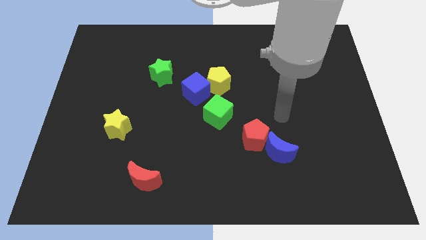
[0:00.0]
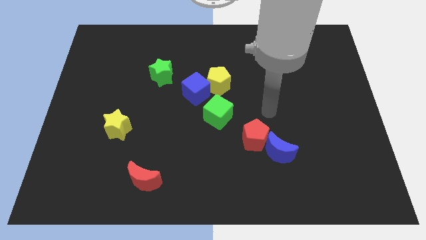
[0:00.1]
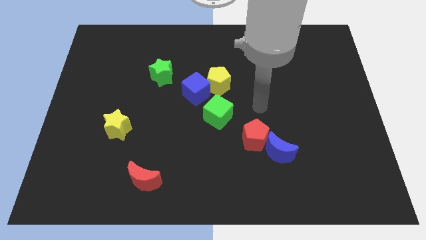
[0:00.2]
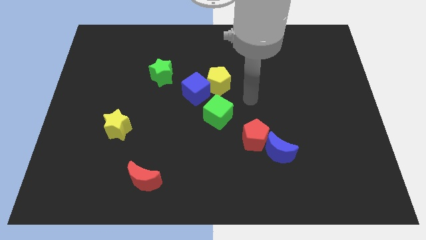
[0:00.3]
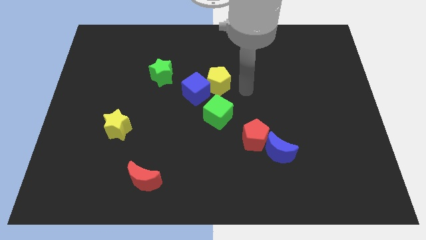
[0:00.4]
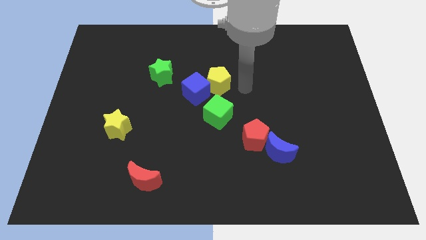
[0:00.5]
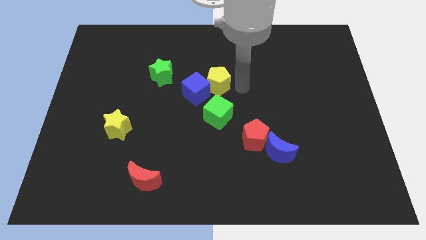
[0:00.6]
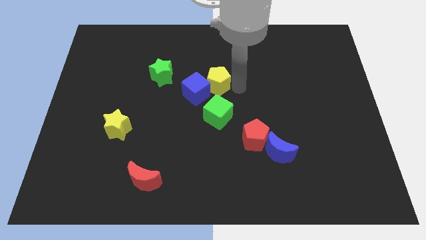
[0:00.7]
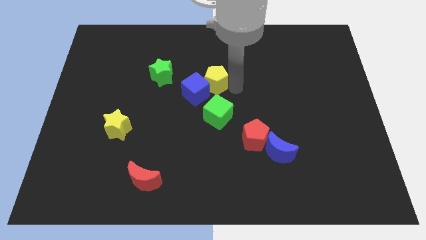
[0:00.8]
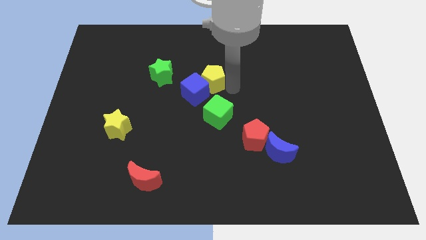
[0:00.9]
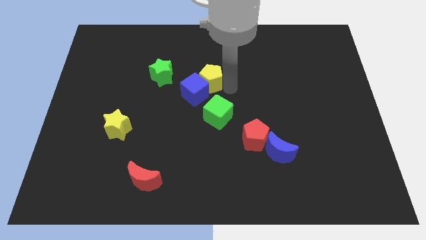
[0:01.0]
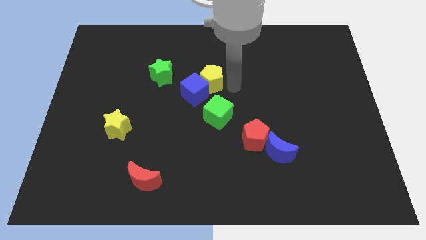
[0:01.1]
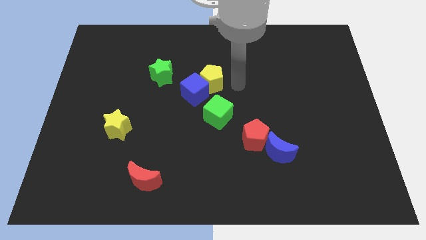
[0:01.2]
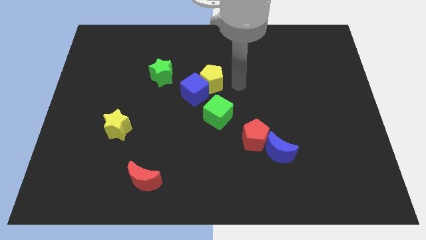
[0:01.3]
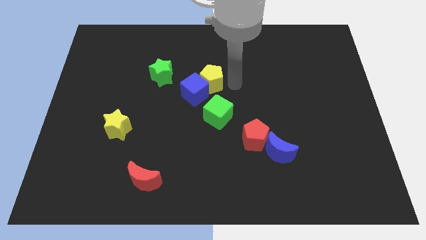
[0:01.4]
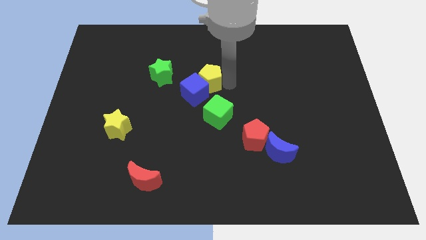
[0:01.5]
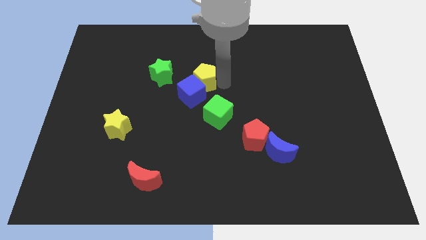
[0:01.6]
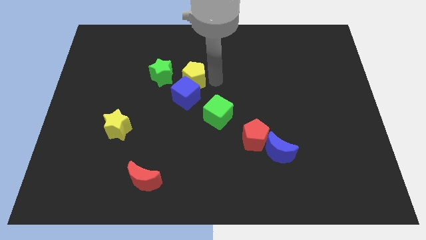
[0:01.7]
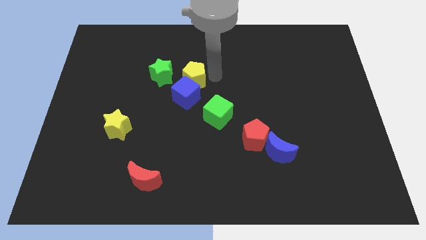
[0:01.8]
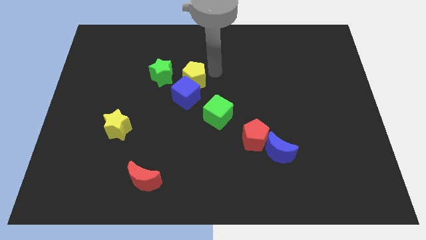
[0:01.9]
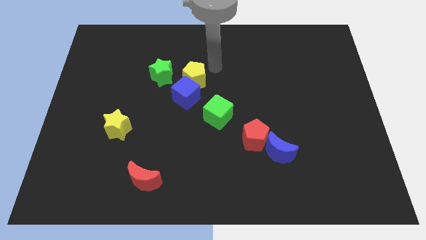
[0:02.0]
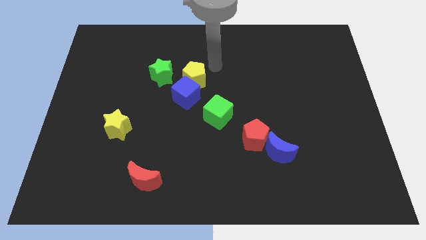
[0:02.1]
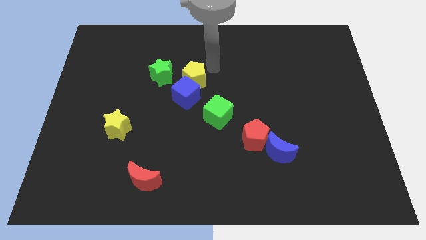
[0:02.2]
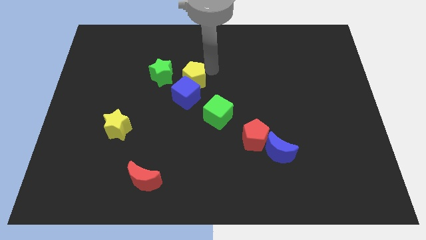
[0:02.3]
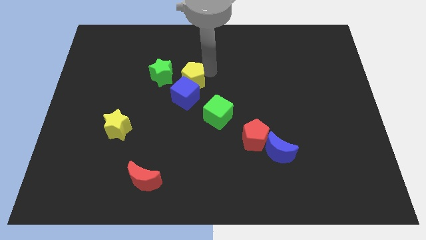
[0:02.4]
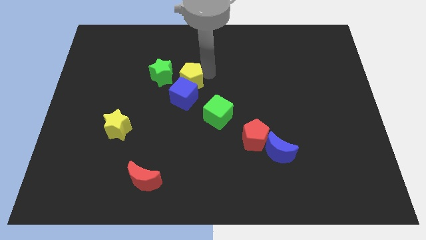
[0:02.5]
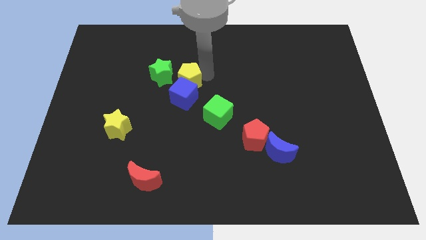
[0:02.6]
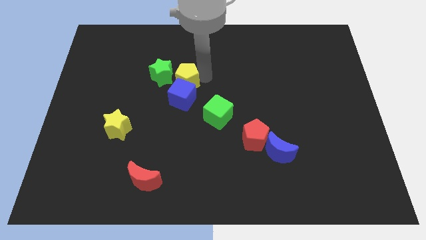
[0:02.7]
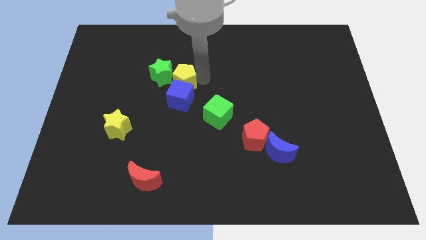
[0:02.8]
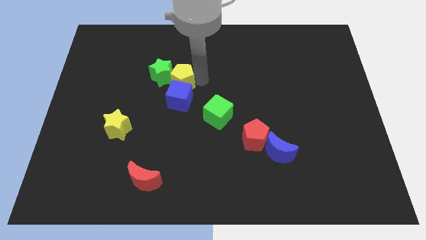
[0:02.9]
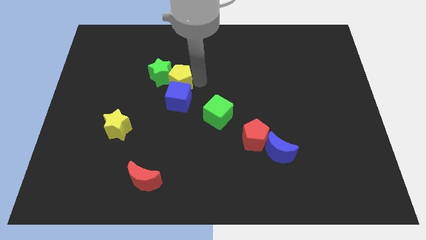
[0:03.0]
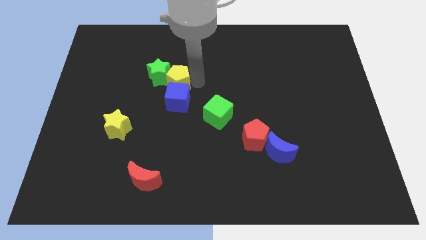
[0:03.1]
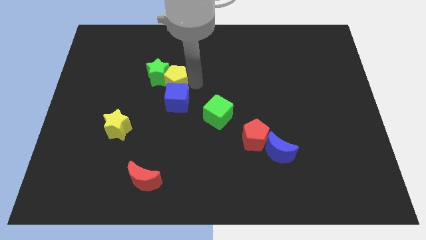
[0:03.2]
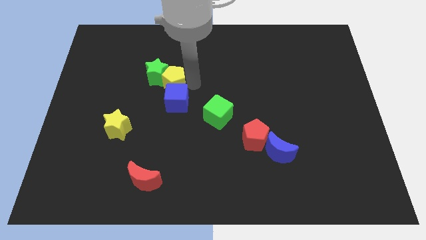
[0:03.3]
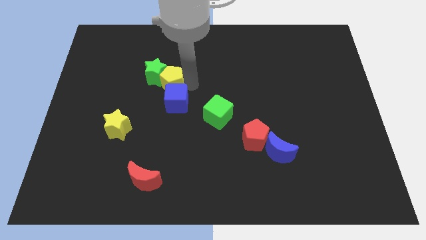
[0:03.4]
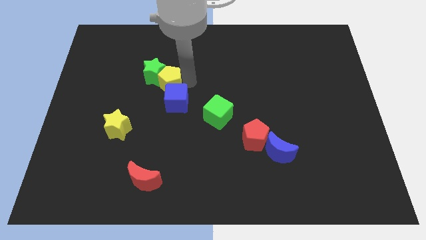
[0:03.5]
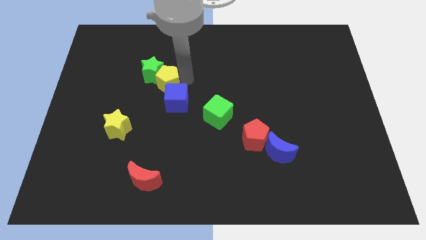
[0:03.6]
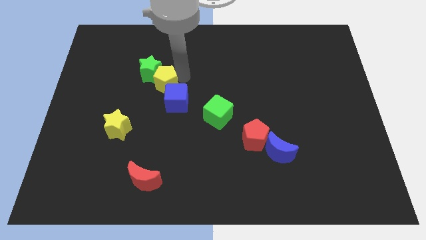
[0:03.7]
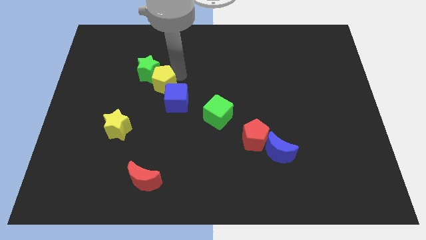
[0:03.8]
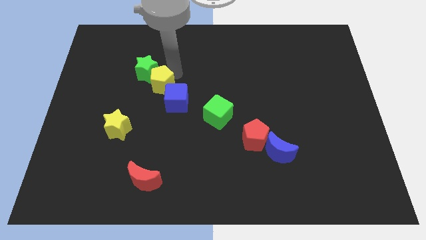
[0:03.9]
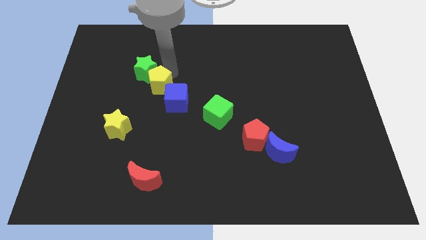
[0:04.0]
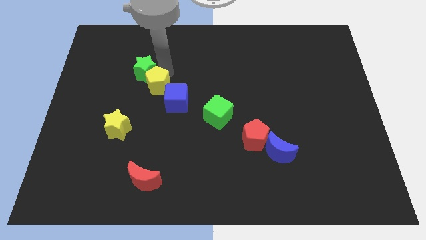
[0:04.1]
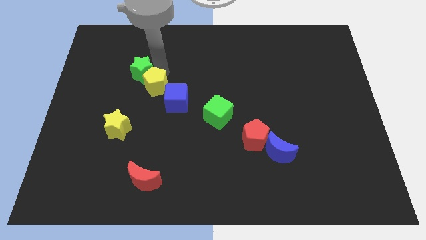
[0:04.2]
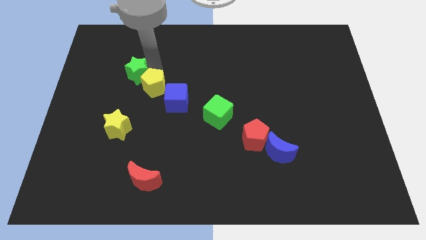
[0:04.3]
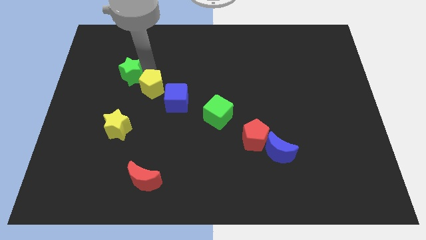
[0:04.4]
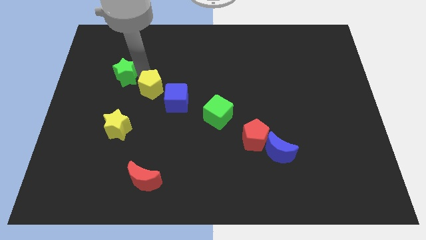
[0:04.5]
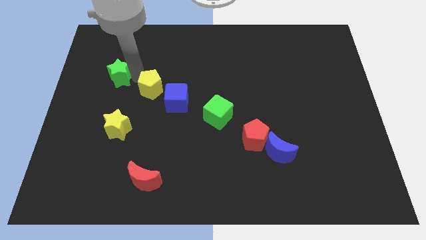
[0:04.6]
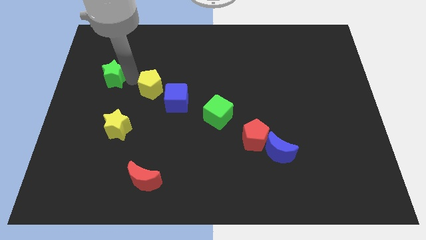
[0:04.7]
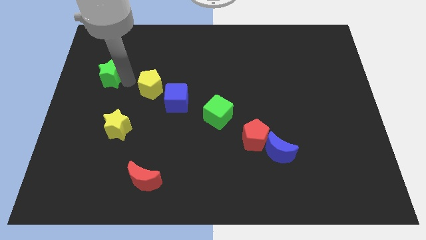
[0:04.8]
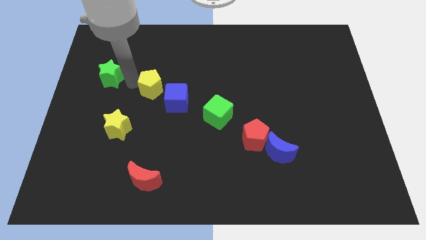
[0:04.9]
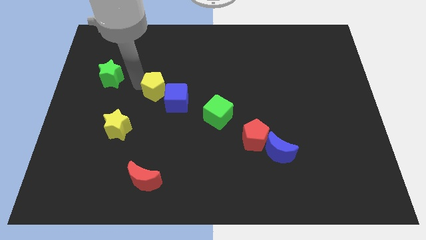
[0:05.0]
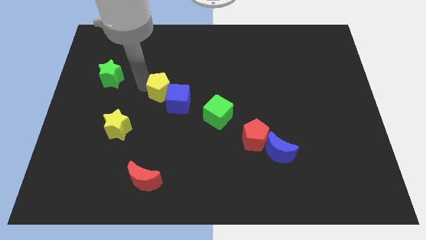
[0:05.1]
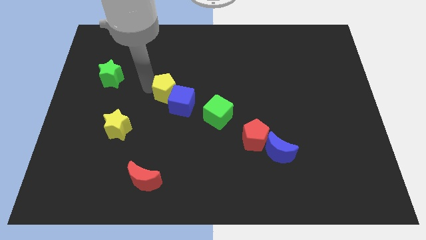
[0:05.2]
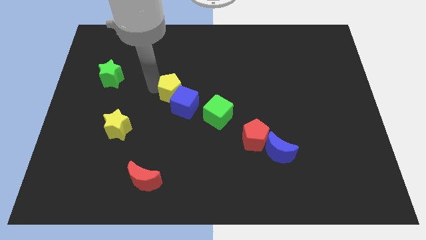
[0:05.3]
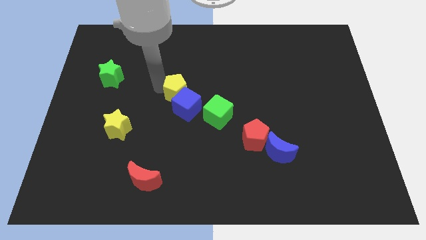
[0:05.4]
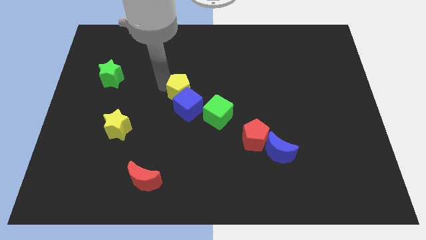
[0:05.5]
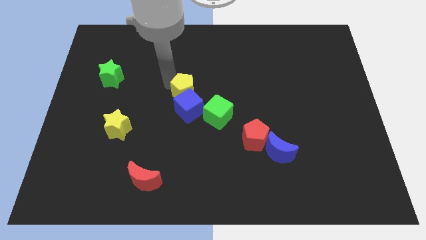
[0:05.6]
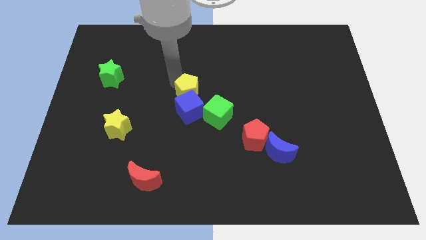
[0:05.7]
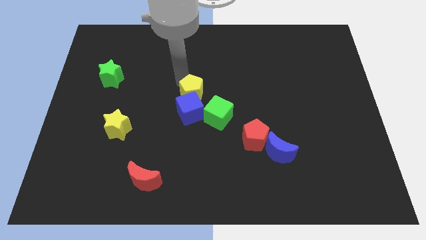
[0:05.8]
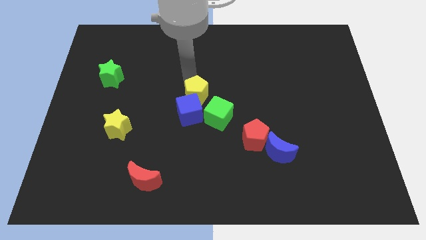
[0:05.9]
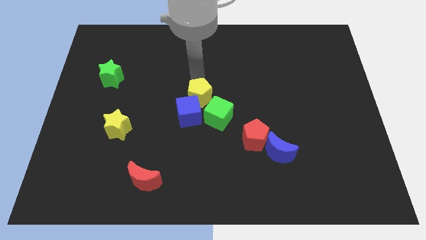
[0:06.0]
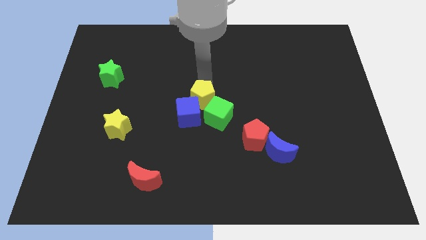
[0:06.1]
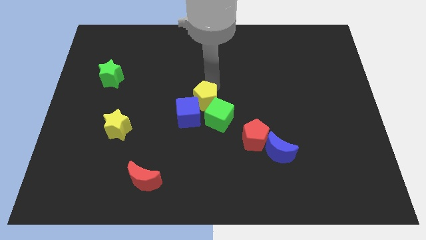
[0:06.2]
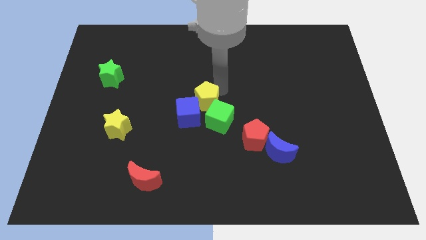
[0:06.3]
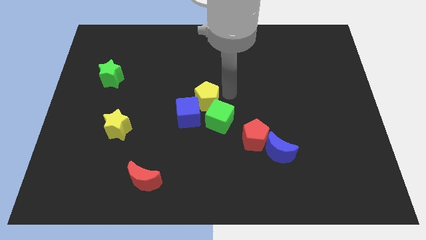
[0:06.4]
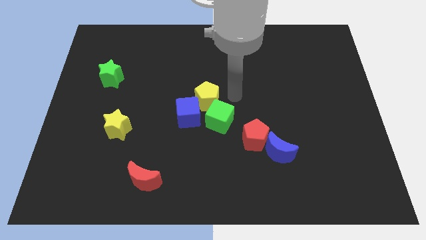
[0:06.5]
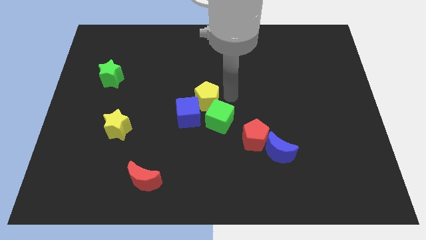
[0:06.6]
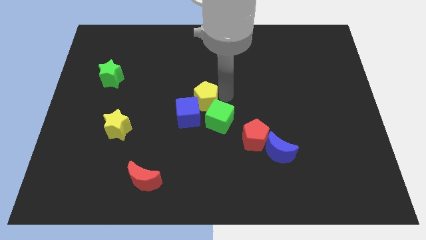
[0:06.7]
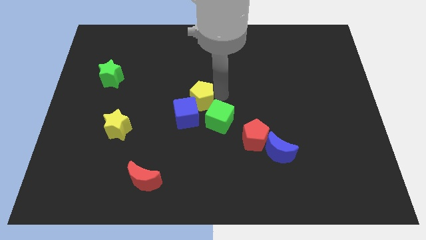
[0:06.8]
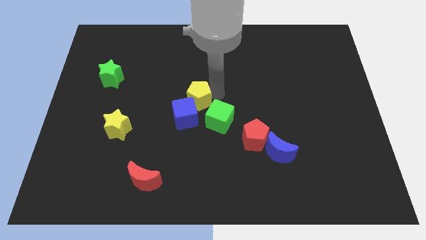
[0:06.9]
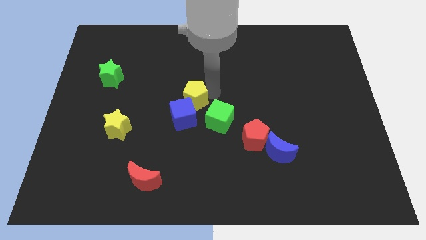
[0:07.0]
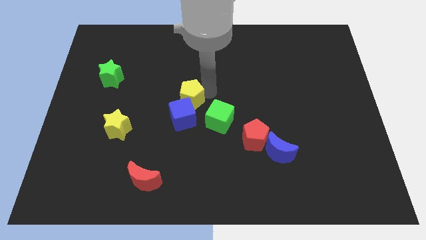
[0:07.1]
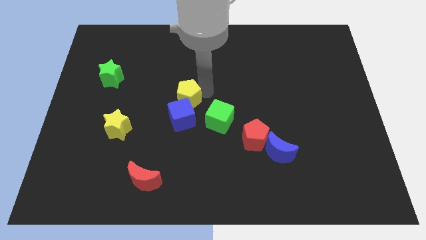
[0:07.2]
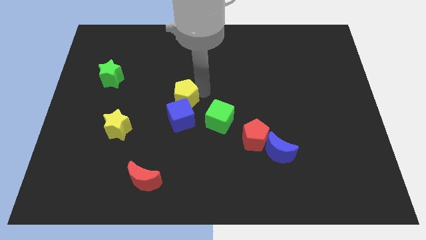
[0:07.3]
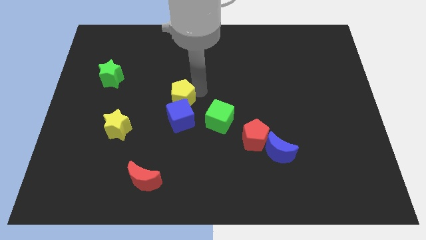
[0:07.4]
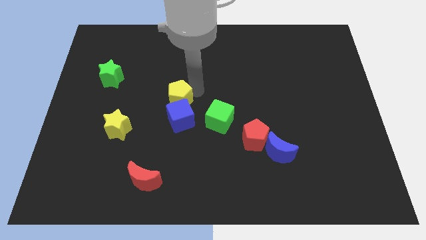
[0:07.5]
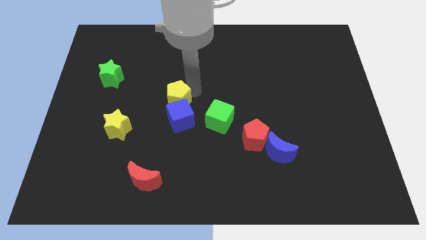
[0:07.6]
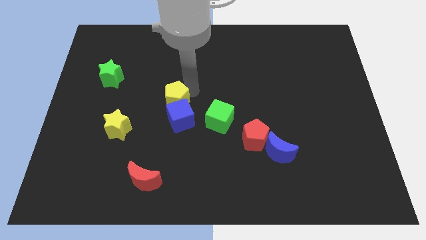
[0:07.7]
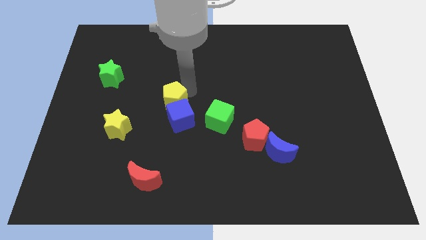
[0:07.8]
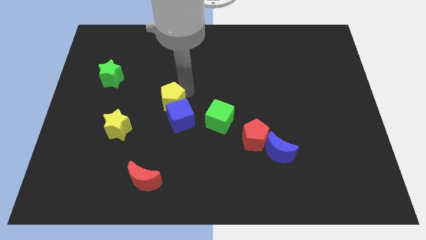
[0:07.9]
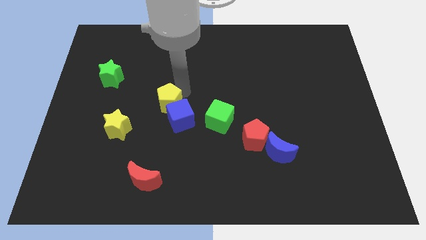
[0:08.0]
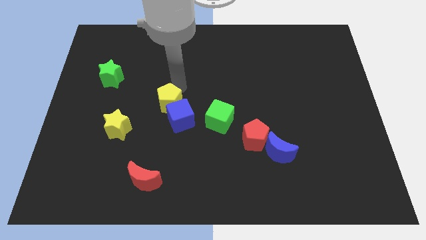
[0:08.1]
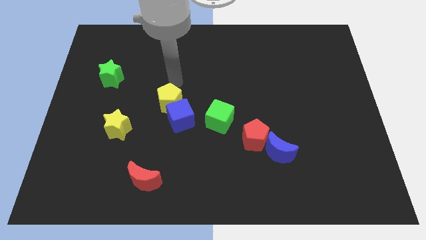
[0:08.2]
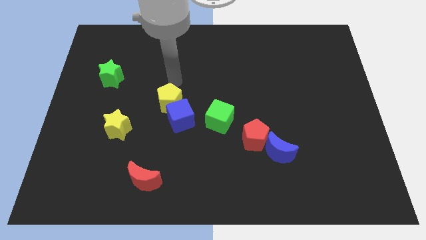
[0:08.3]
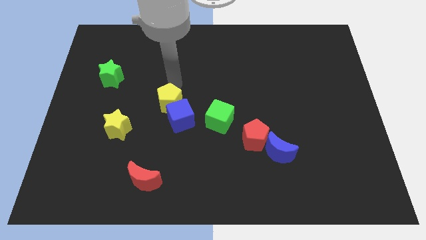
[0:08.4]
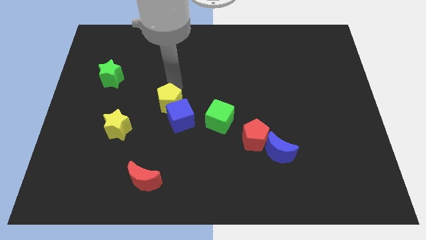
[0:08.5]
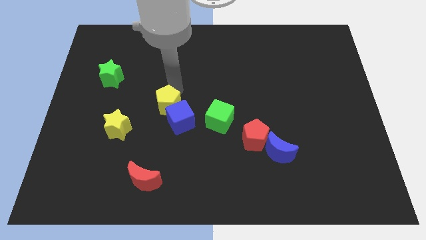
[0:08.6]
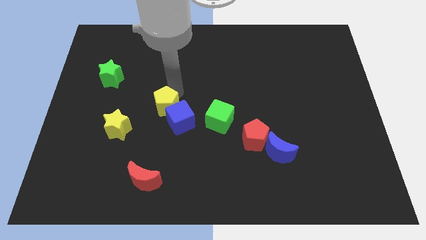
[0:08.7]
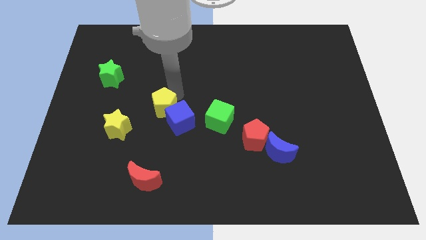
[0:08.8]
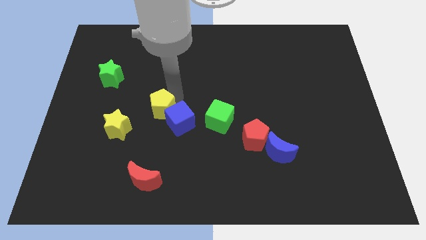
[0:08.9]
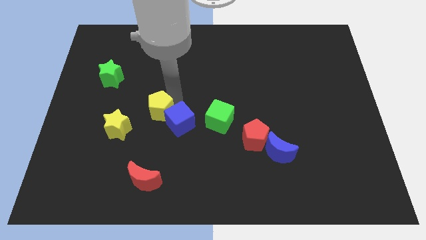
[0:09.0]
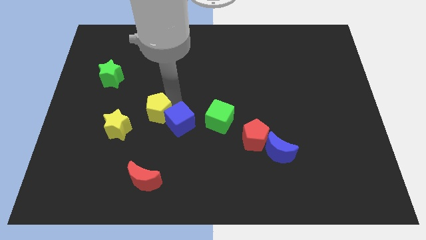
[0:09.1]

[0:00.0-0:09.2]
move the yellow pentagon to the right side of the yellow star
